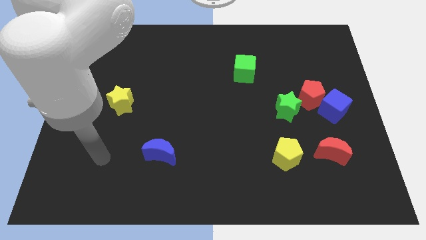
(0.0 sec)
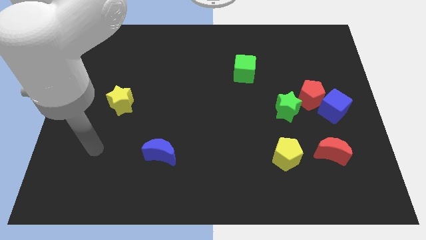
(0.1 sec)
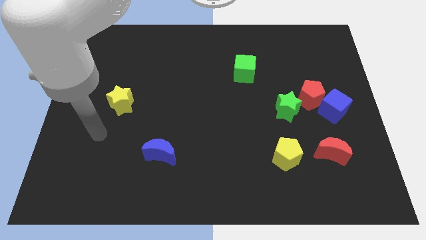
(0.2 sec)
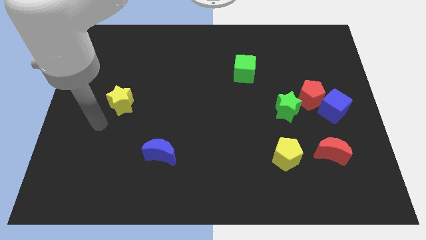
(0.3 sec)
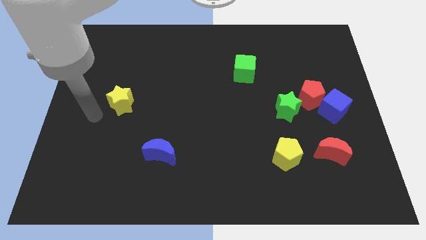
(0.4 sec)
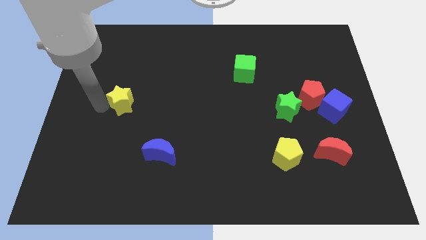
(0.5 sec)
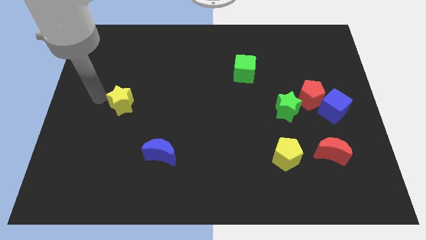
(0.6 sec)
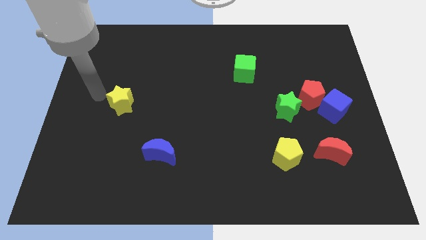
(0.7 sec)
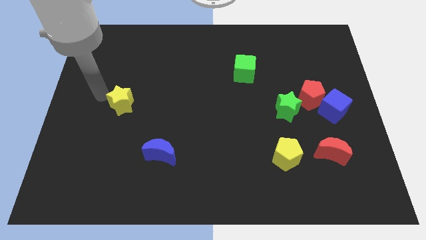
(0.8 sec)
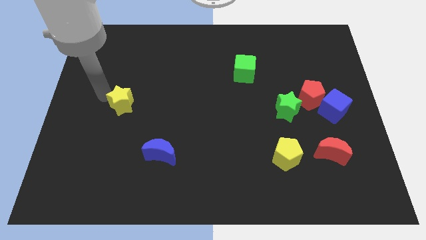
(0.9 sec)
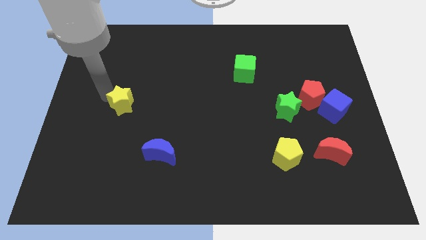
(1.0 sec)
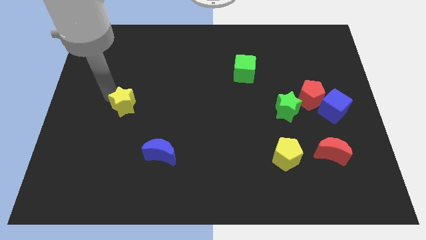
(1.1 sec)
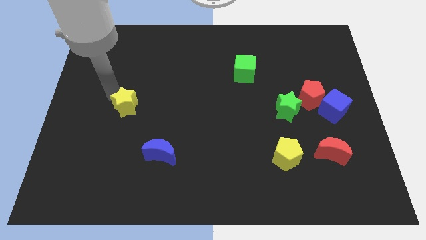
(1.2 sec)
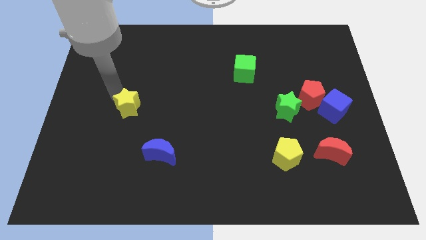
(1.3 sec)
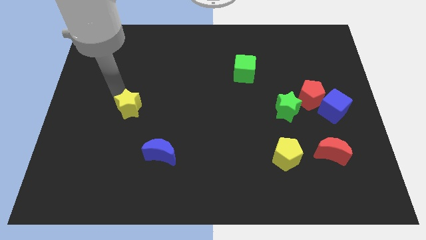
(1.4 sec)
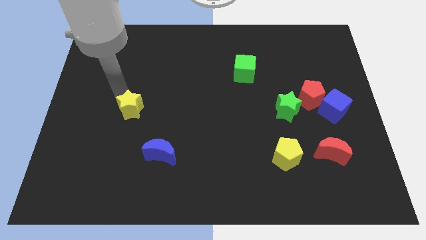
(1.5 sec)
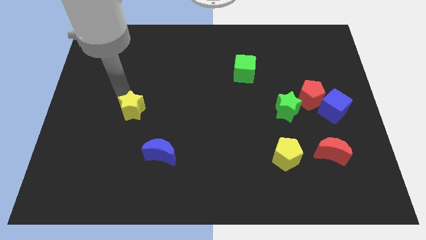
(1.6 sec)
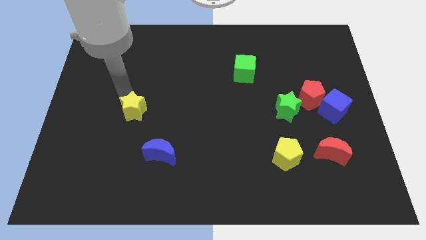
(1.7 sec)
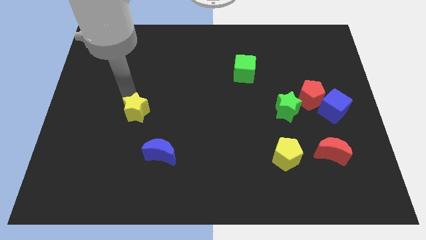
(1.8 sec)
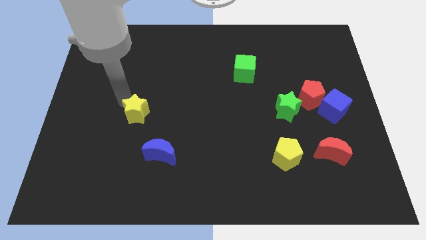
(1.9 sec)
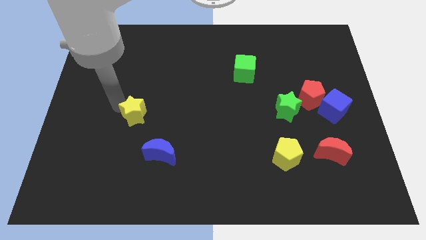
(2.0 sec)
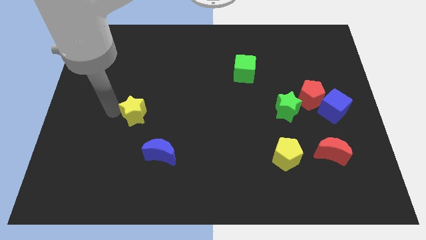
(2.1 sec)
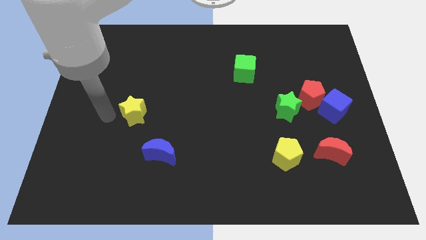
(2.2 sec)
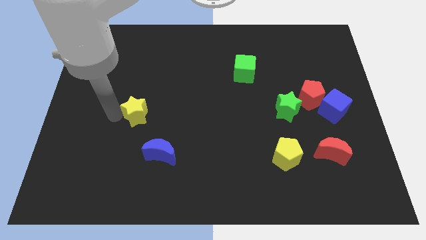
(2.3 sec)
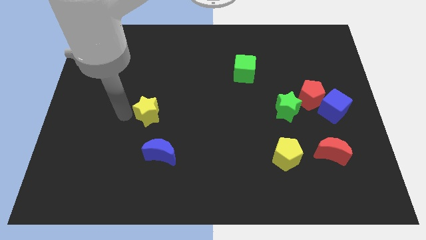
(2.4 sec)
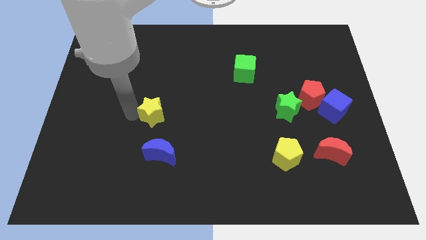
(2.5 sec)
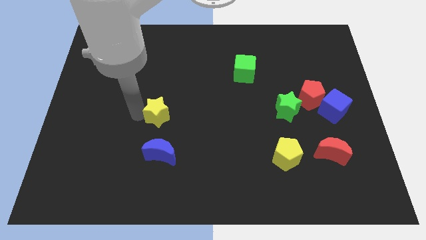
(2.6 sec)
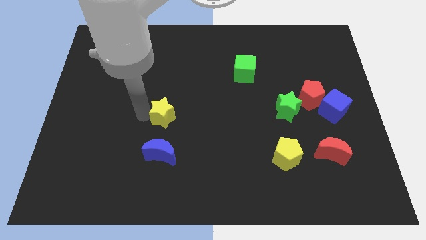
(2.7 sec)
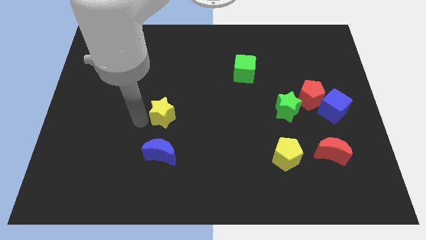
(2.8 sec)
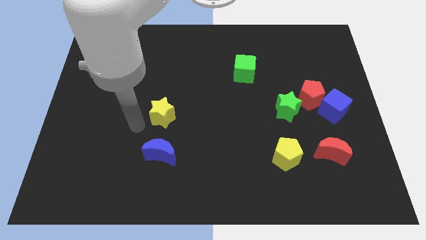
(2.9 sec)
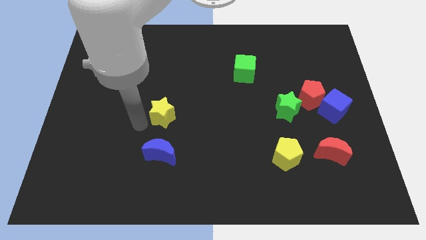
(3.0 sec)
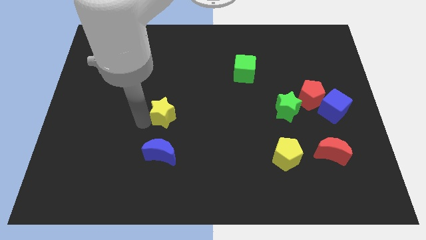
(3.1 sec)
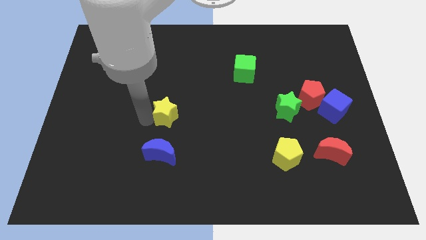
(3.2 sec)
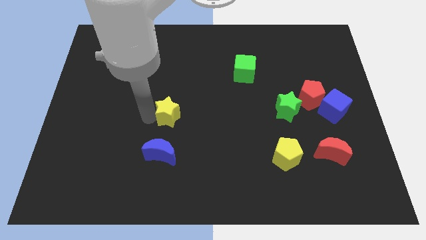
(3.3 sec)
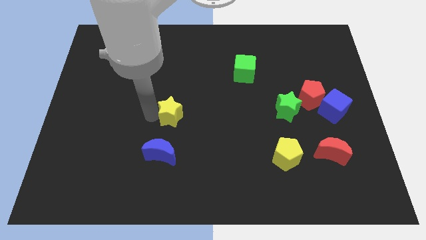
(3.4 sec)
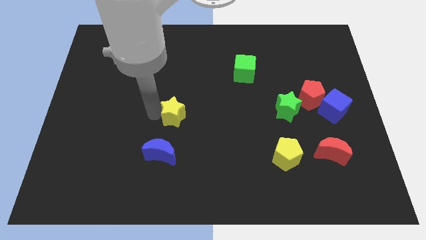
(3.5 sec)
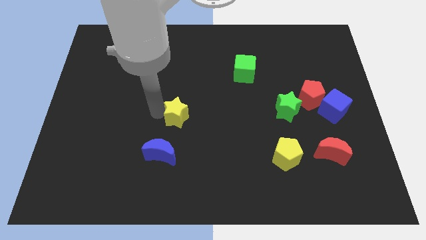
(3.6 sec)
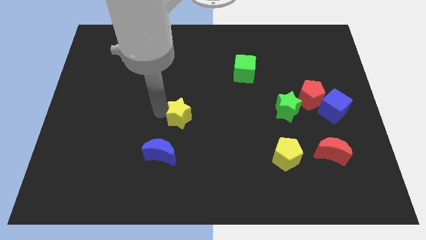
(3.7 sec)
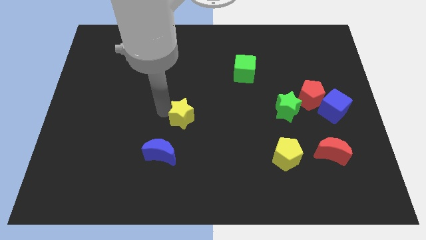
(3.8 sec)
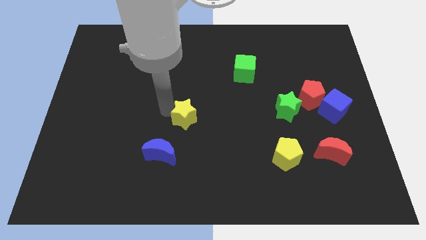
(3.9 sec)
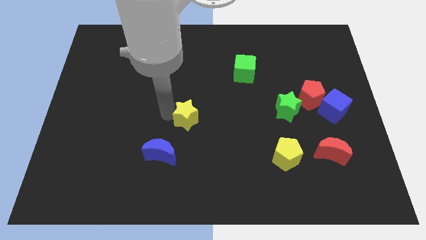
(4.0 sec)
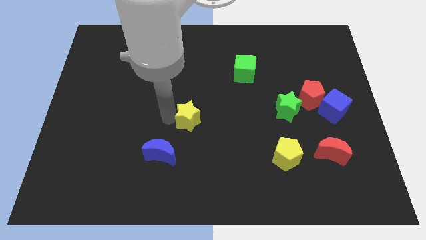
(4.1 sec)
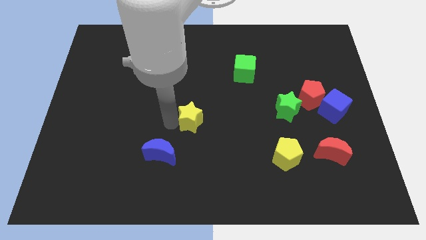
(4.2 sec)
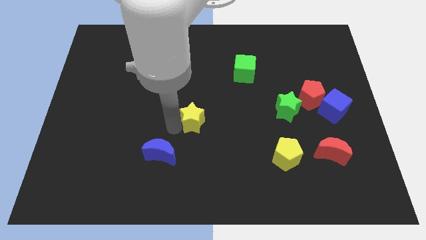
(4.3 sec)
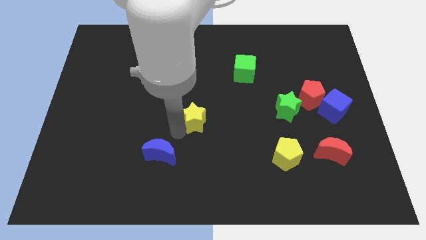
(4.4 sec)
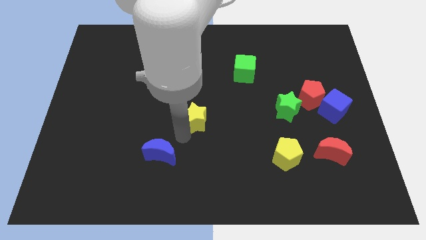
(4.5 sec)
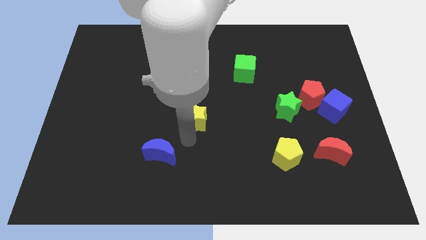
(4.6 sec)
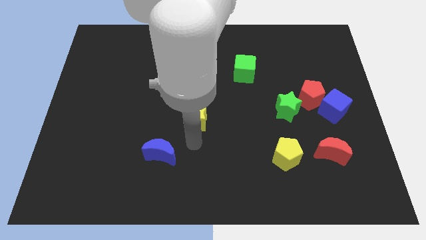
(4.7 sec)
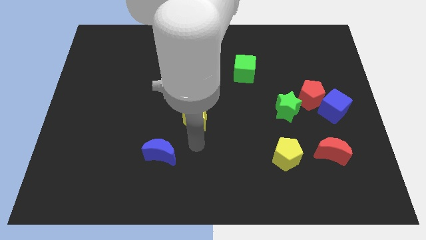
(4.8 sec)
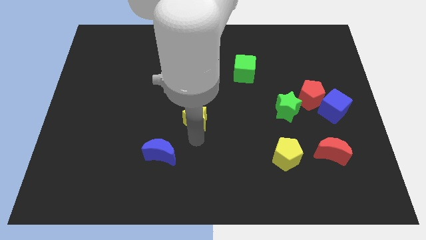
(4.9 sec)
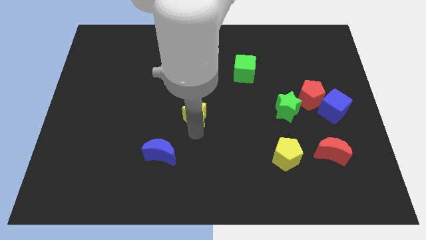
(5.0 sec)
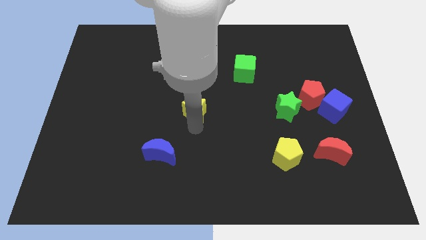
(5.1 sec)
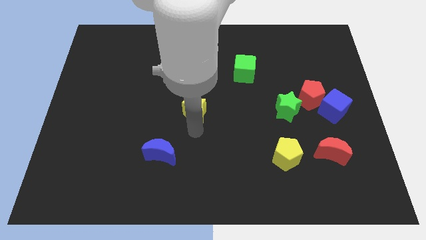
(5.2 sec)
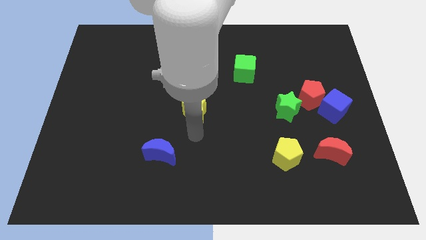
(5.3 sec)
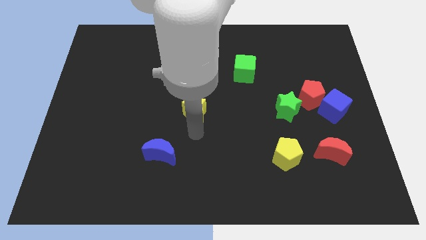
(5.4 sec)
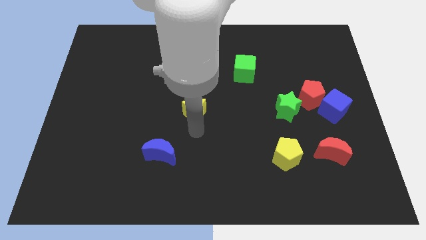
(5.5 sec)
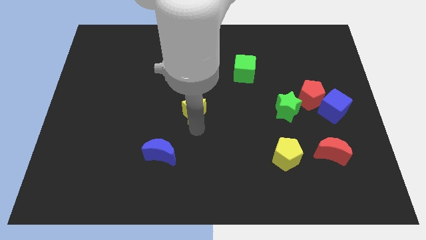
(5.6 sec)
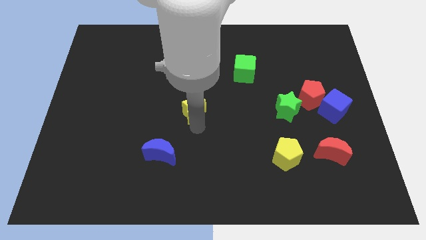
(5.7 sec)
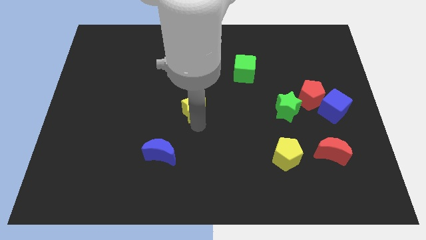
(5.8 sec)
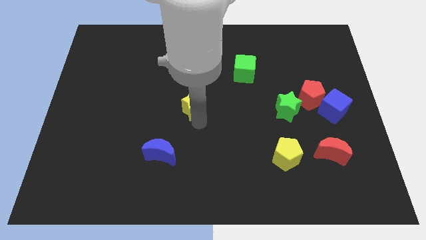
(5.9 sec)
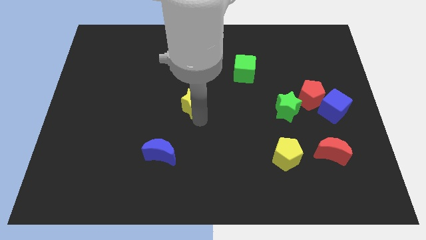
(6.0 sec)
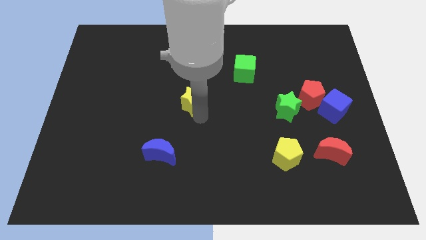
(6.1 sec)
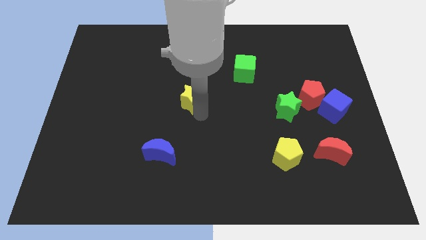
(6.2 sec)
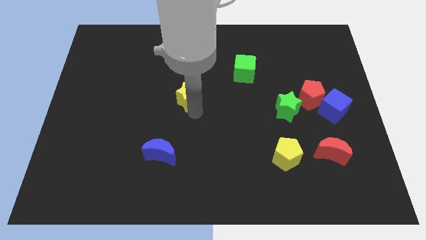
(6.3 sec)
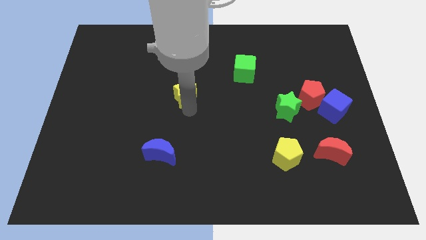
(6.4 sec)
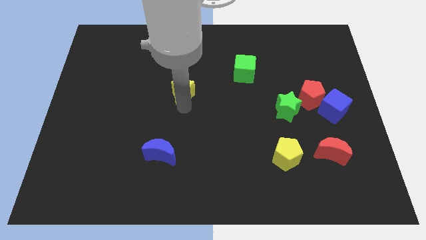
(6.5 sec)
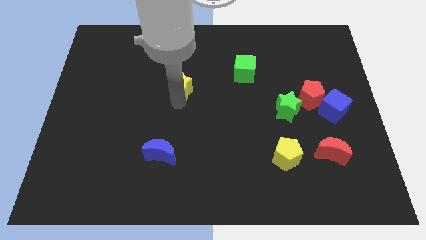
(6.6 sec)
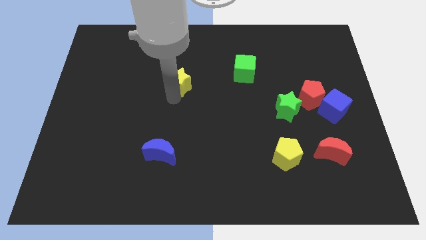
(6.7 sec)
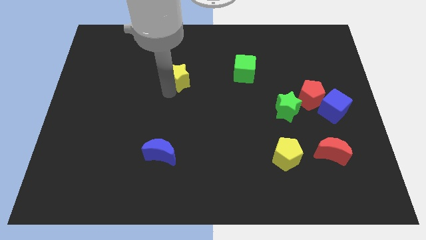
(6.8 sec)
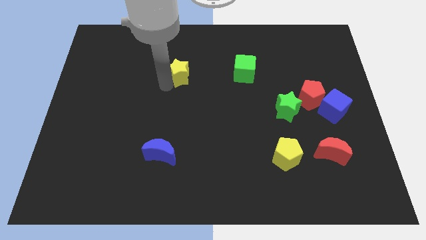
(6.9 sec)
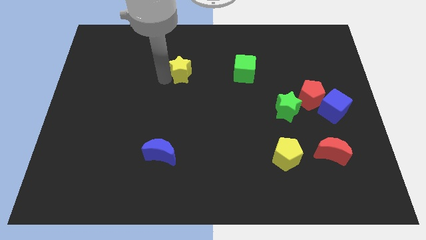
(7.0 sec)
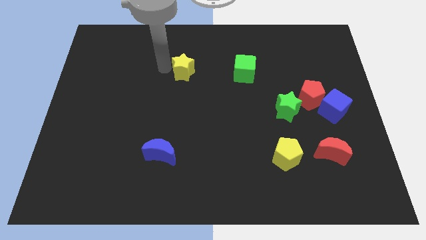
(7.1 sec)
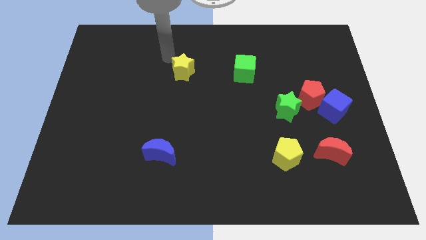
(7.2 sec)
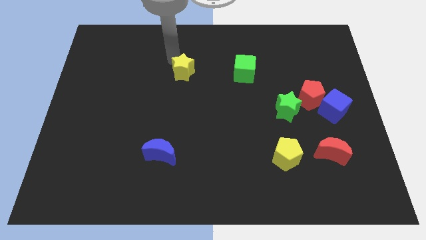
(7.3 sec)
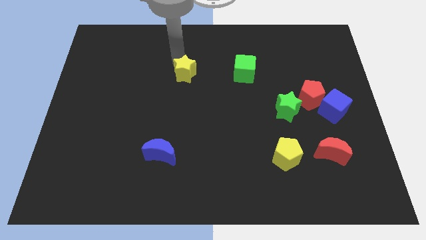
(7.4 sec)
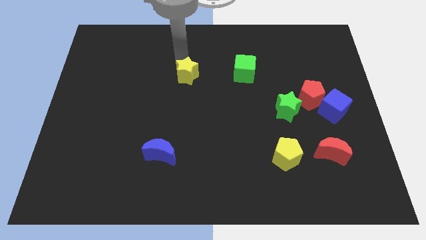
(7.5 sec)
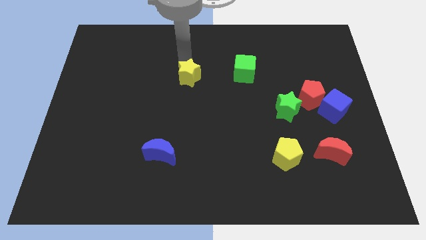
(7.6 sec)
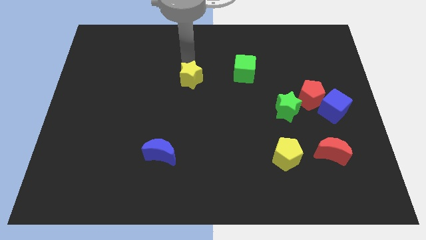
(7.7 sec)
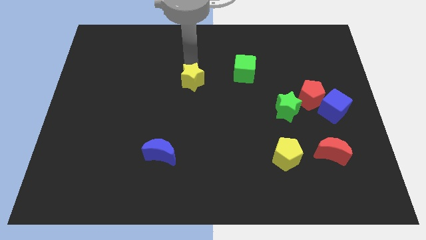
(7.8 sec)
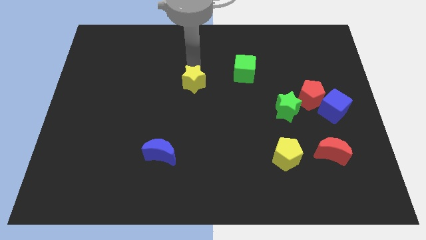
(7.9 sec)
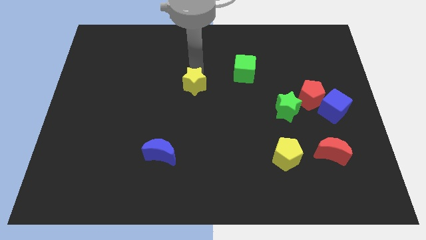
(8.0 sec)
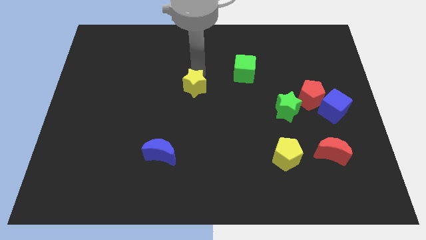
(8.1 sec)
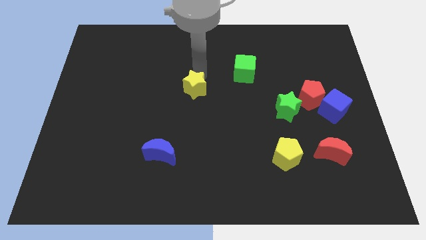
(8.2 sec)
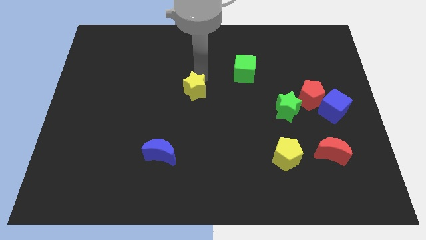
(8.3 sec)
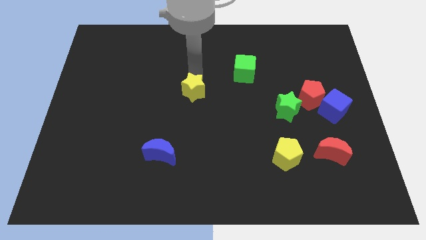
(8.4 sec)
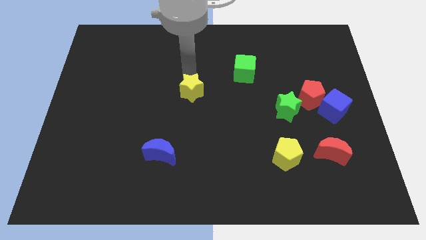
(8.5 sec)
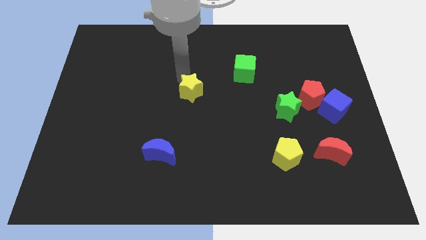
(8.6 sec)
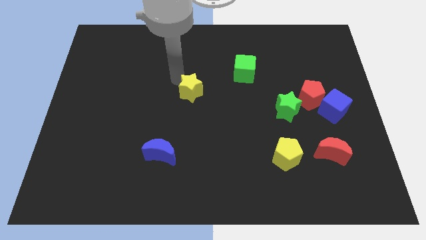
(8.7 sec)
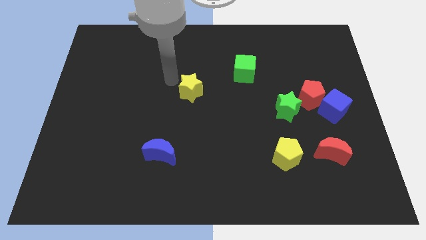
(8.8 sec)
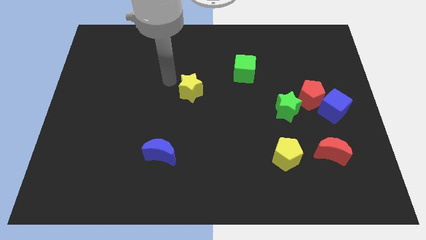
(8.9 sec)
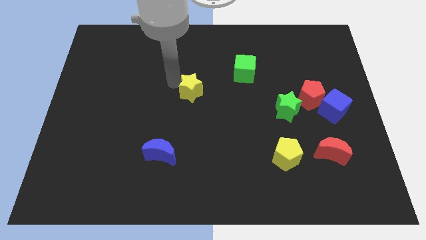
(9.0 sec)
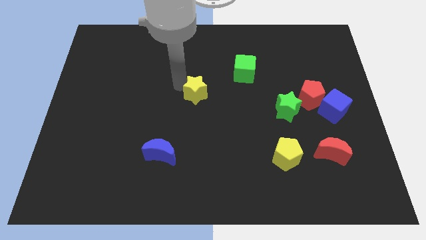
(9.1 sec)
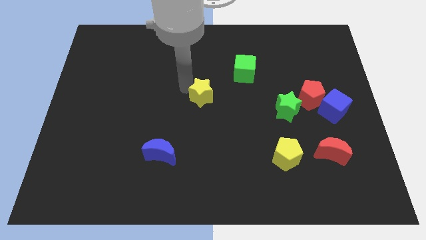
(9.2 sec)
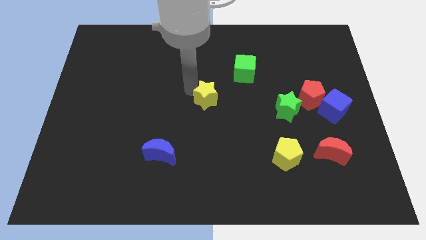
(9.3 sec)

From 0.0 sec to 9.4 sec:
move the yellow star to the right
